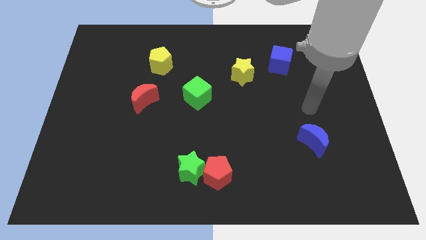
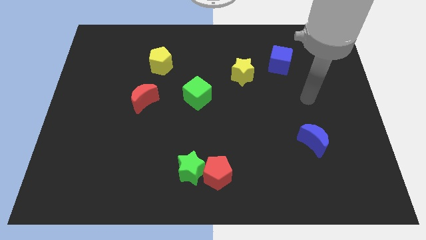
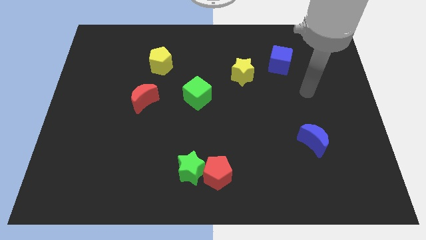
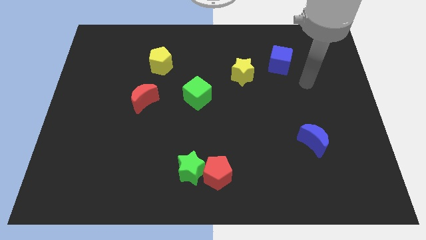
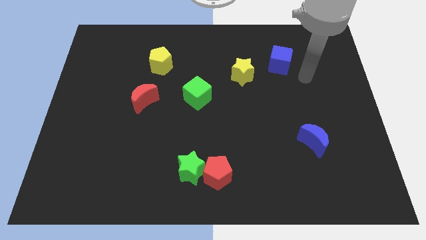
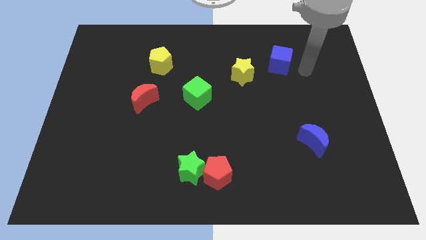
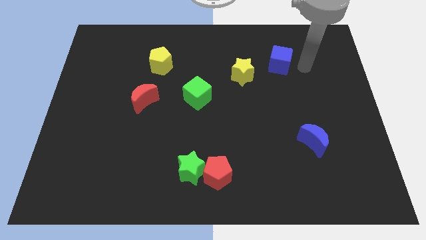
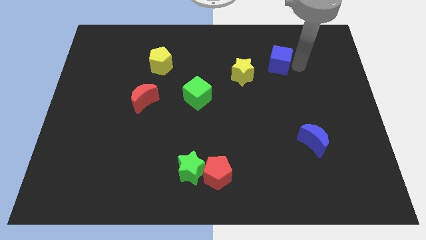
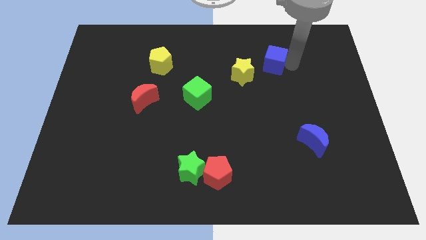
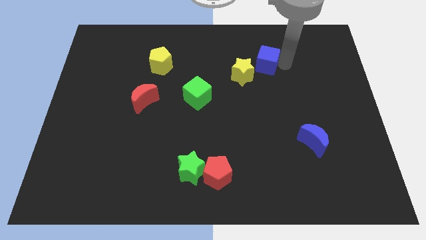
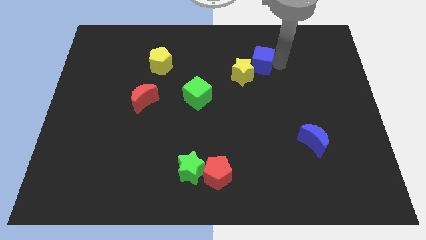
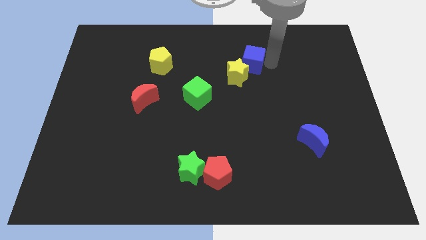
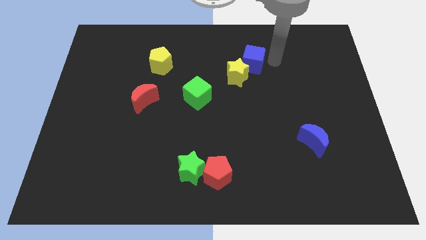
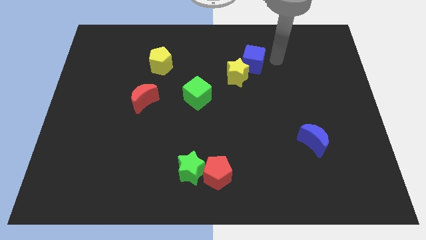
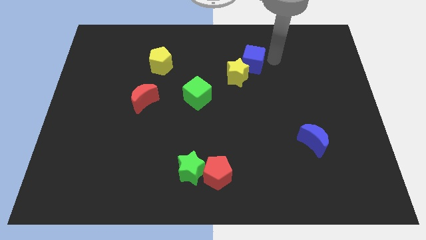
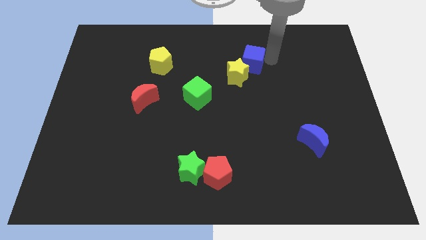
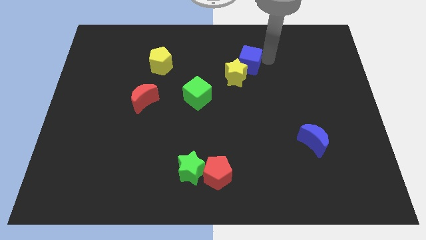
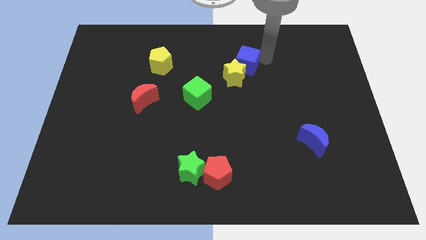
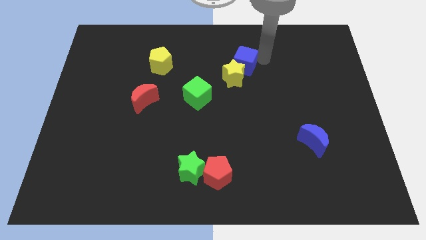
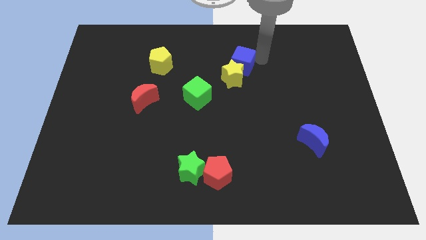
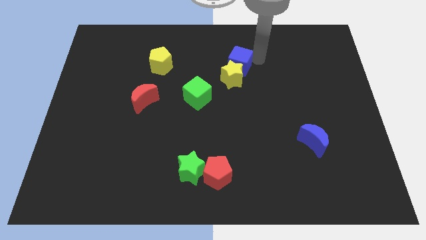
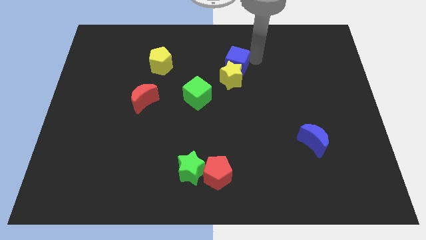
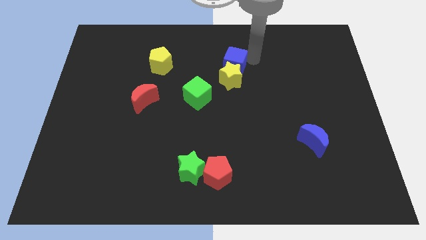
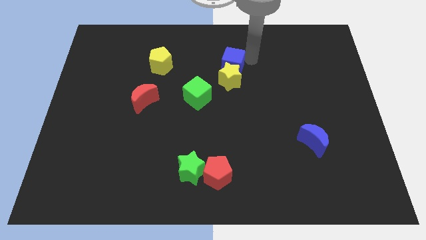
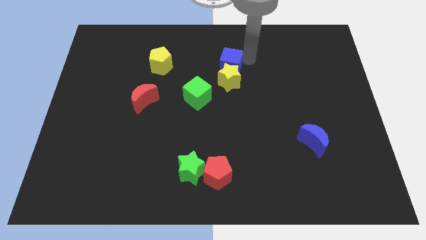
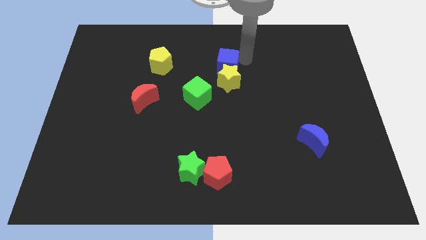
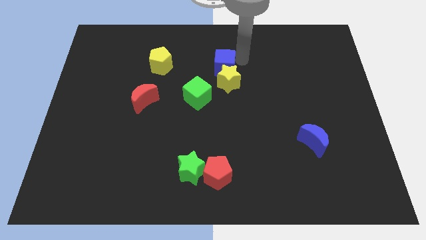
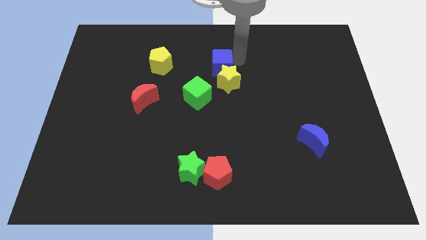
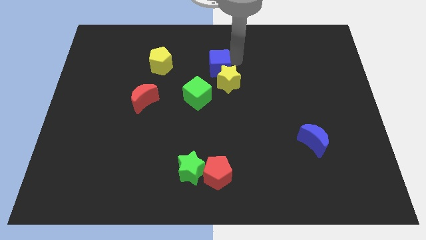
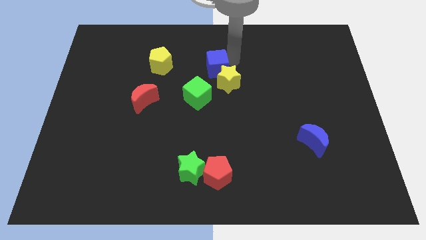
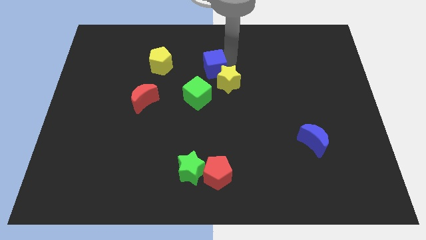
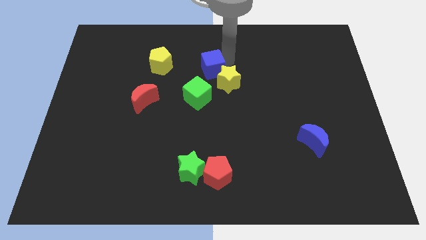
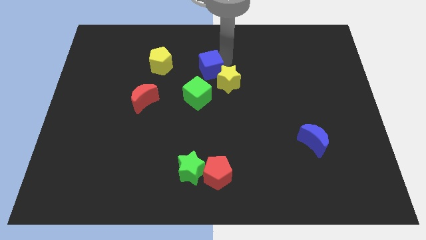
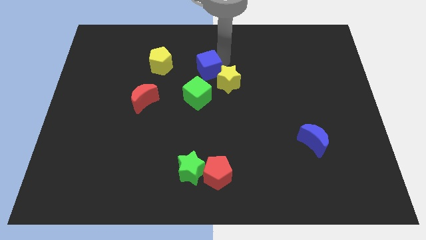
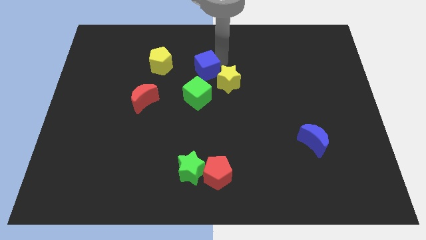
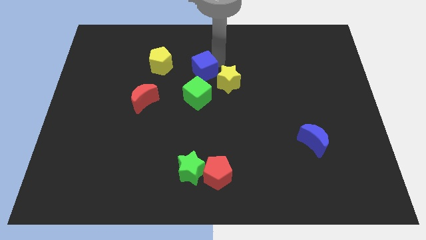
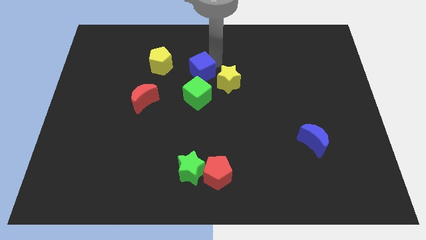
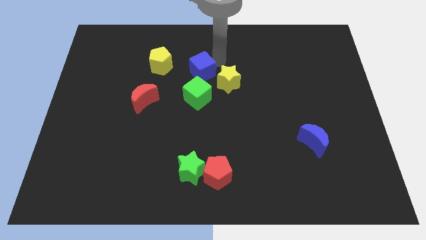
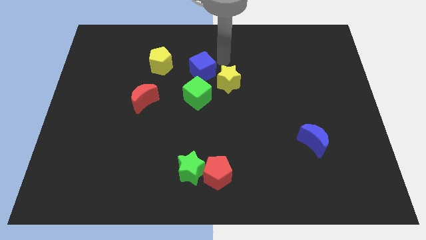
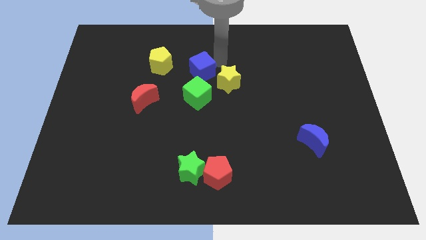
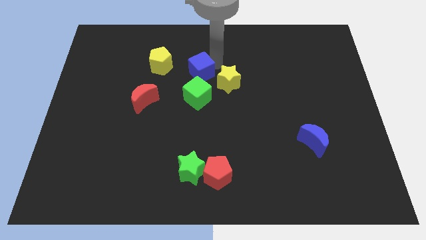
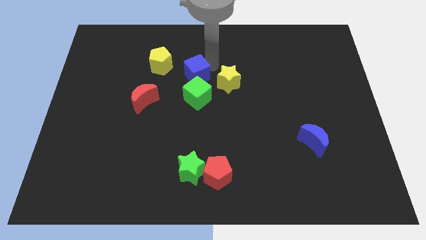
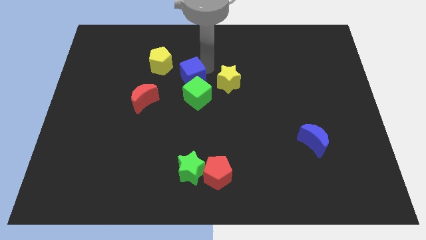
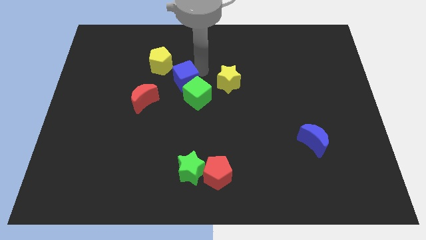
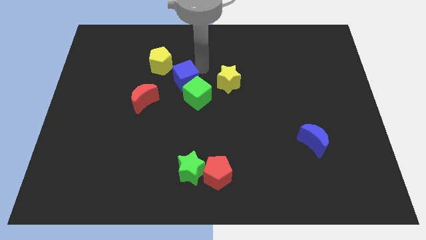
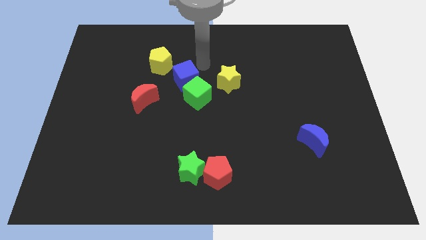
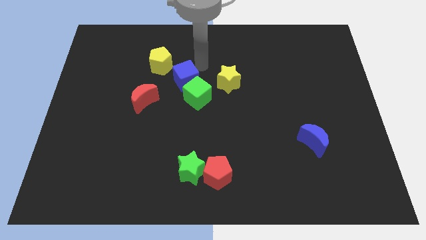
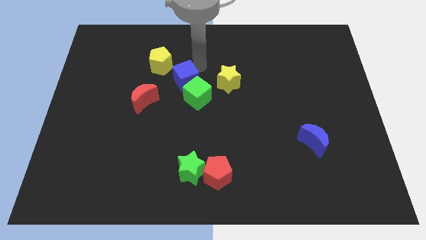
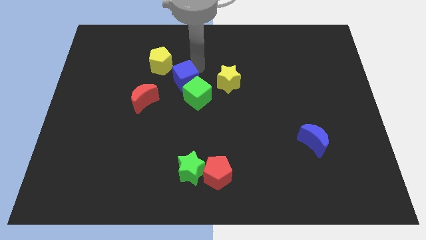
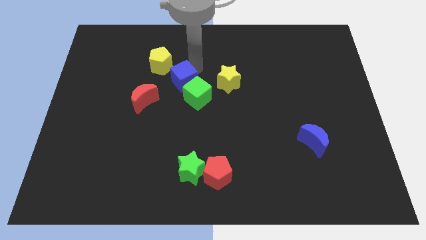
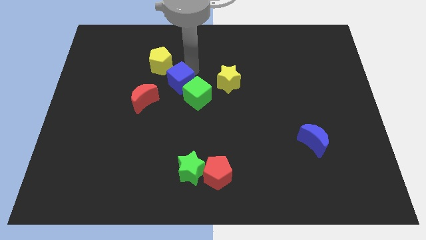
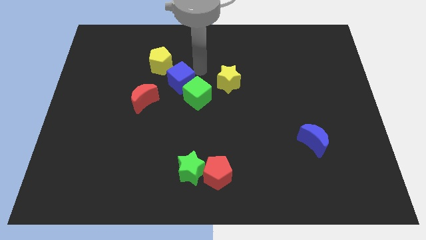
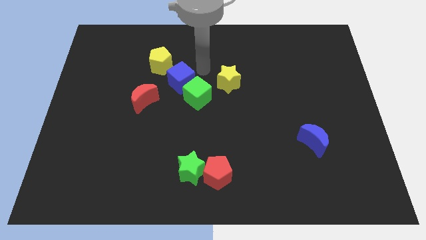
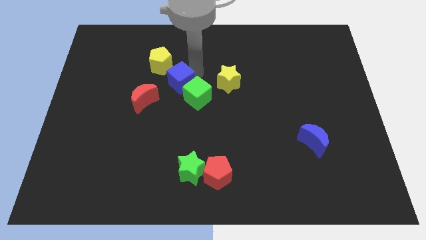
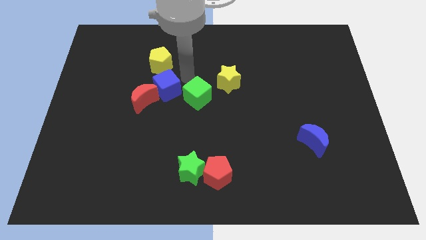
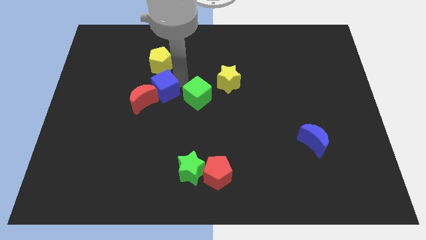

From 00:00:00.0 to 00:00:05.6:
move the blue cube next to the red moon

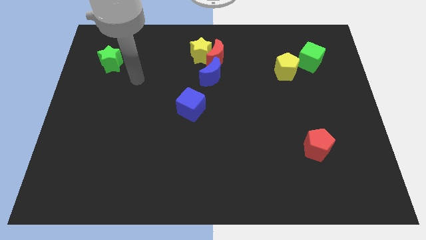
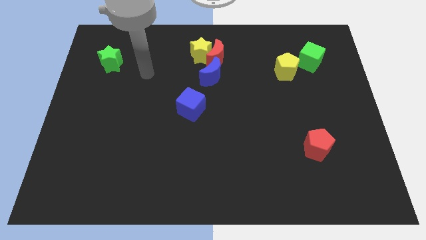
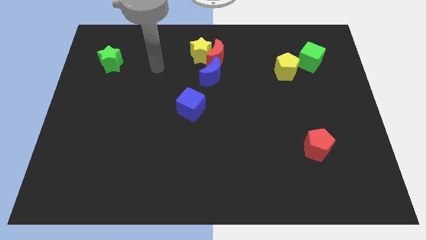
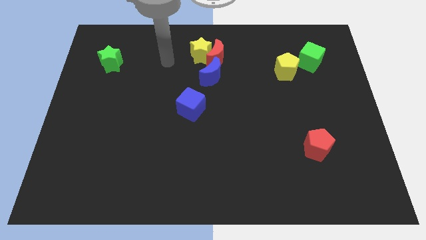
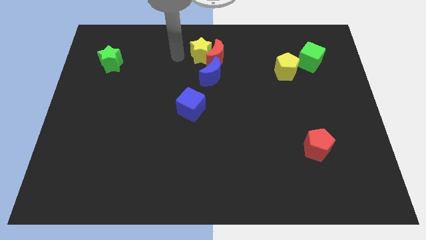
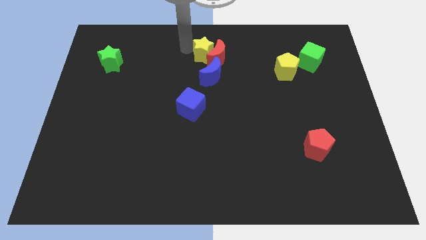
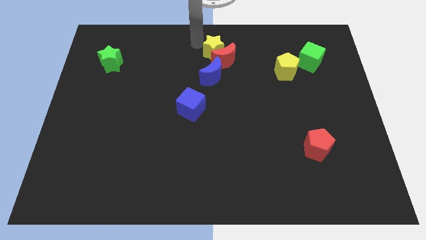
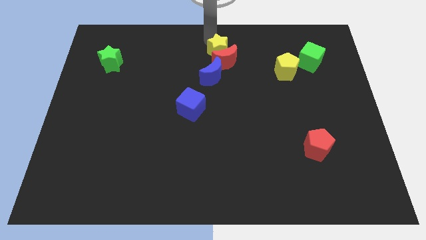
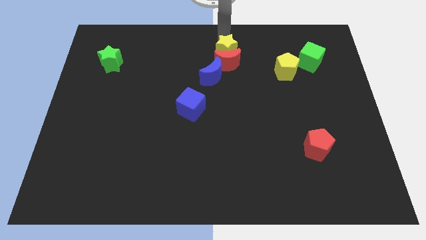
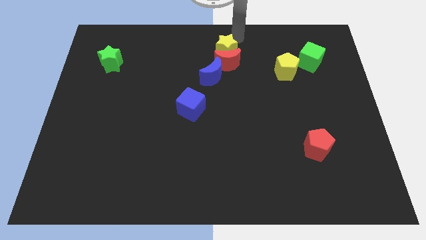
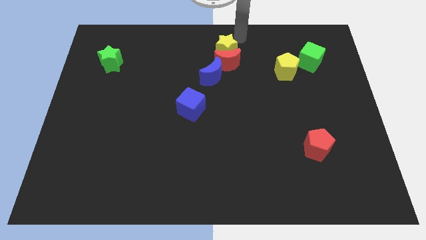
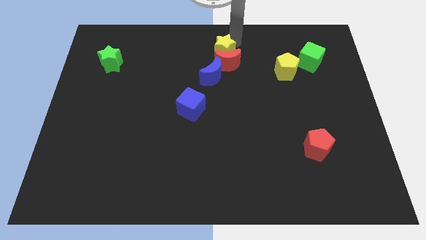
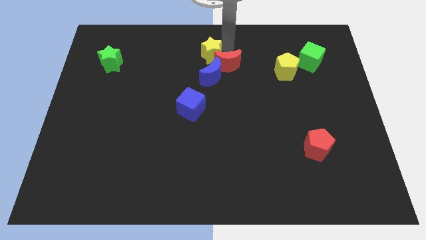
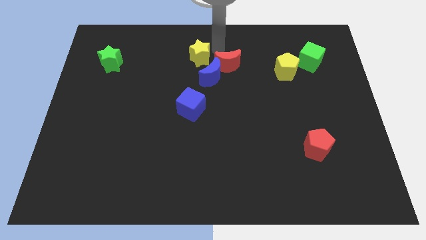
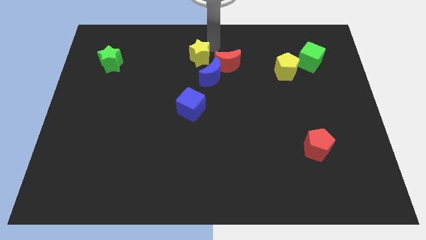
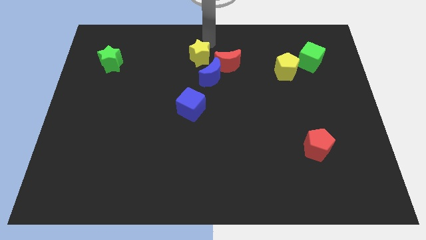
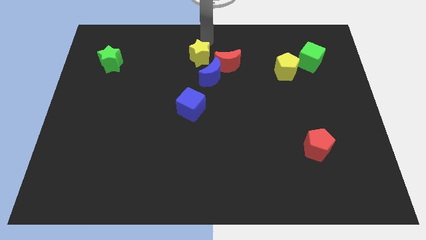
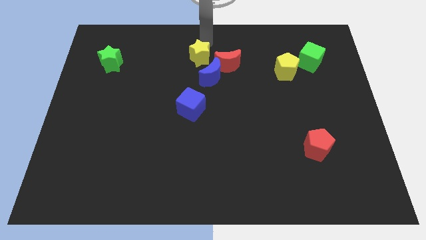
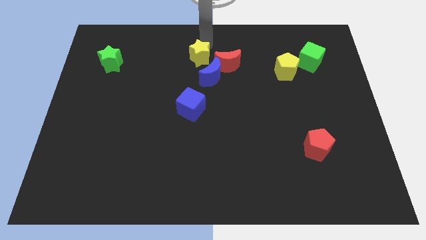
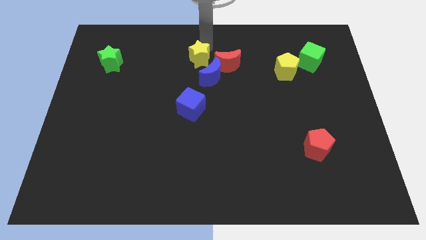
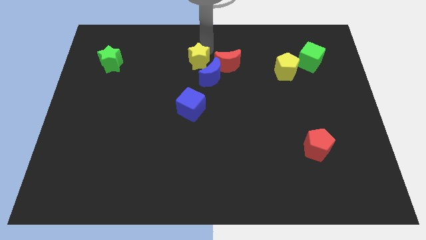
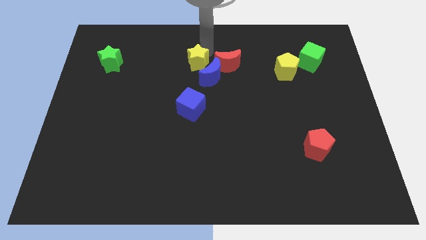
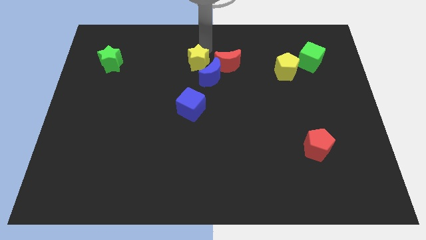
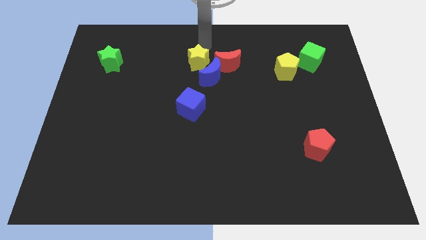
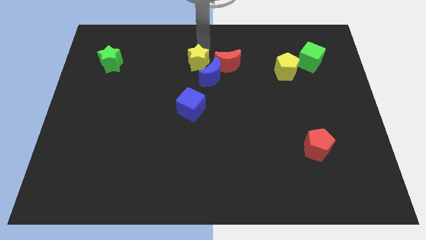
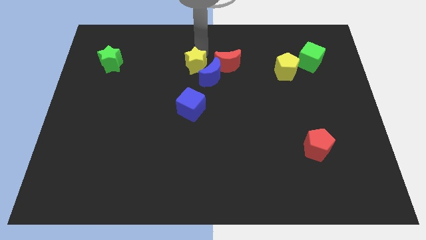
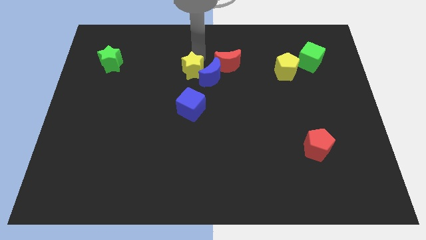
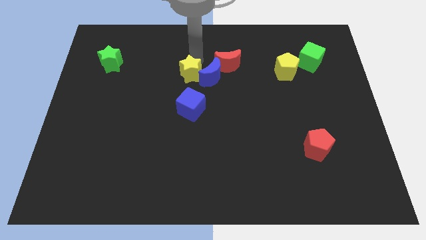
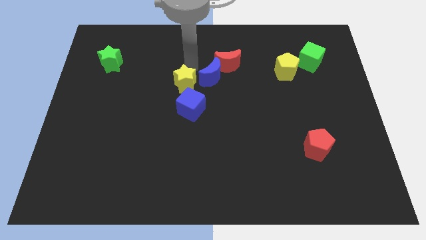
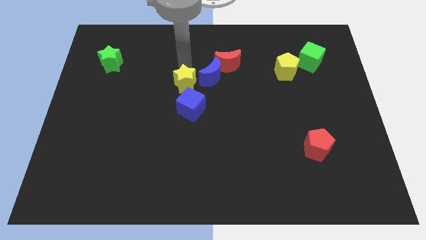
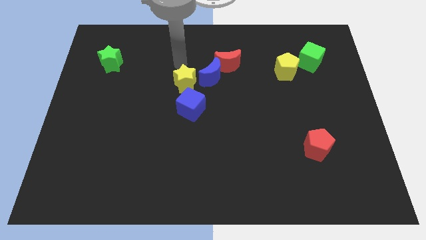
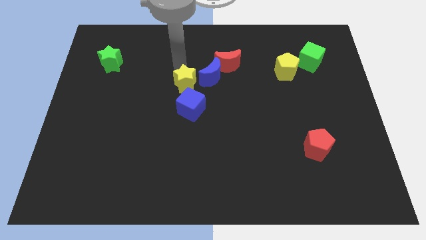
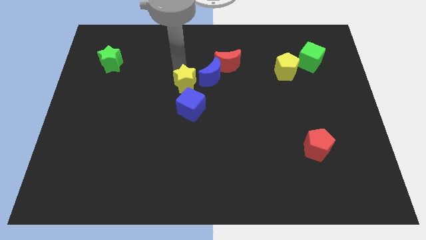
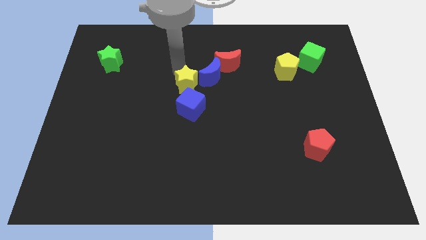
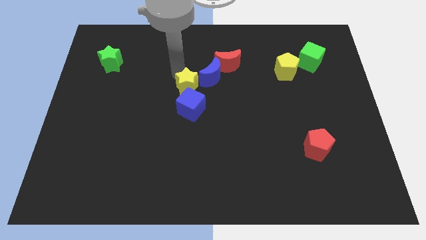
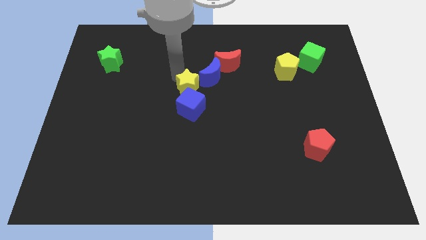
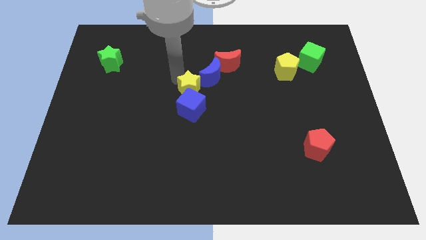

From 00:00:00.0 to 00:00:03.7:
put the yellow star next to the blue cube
